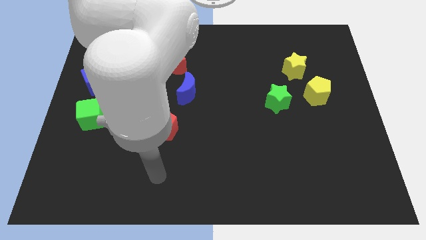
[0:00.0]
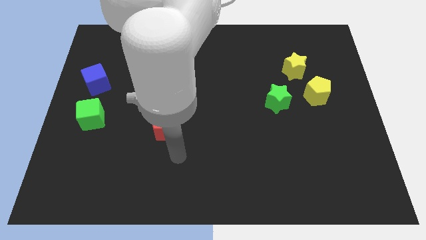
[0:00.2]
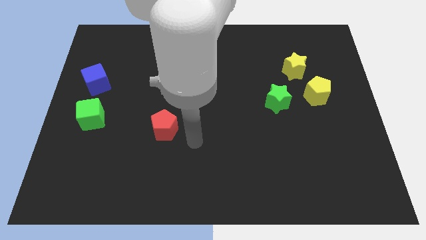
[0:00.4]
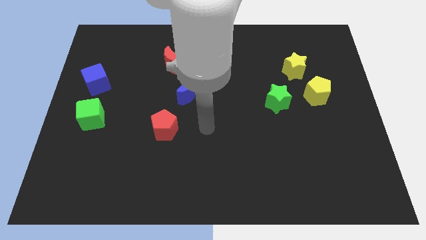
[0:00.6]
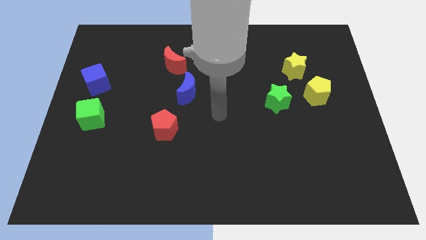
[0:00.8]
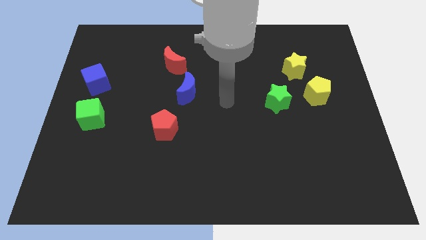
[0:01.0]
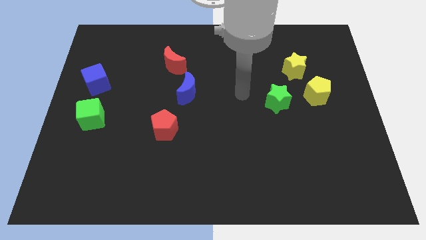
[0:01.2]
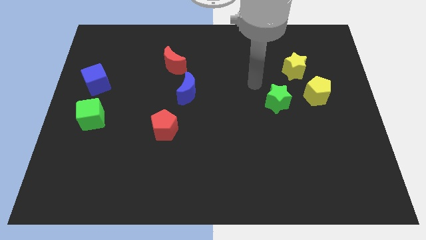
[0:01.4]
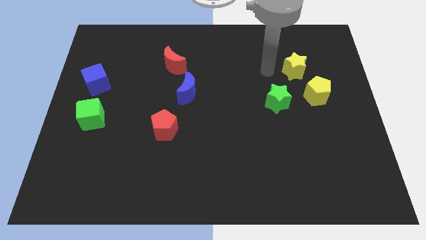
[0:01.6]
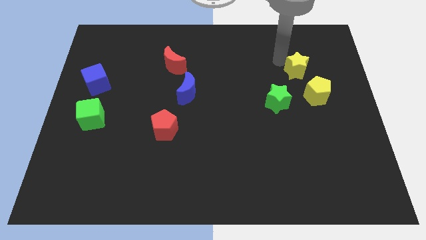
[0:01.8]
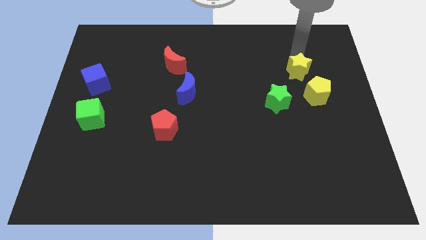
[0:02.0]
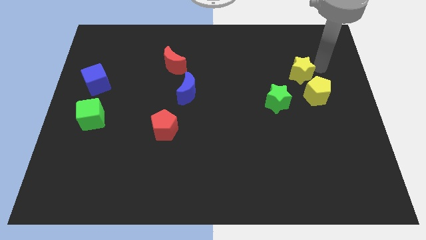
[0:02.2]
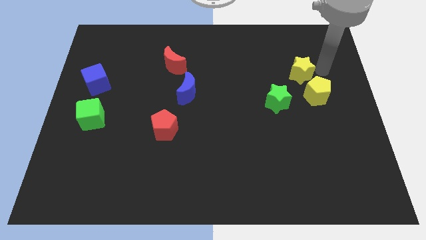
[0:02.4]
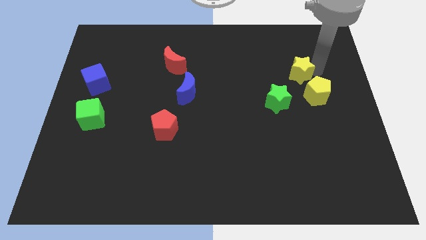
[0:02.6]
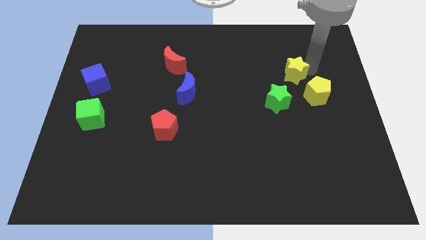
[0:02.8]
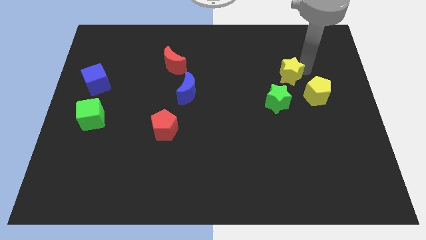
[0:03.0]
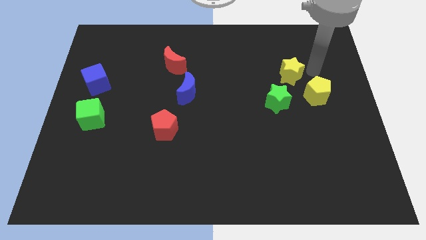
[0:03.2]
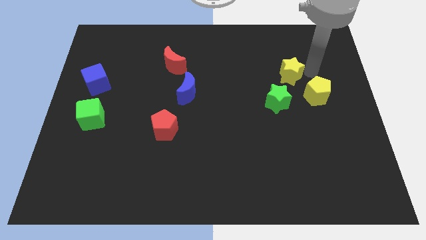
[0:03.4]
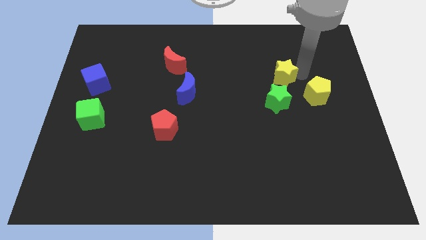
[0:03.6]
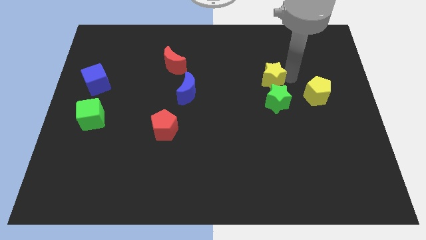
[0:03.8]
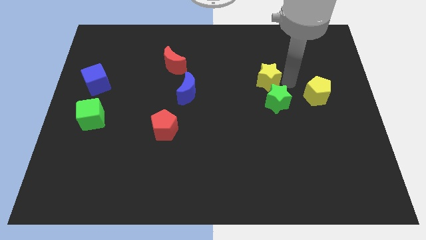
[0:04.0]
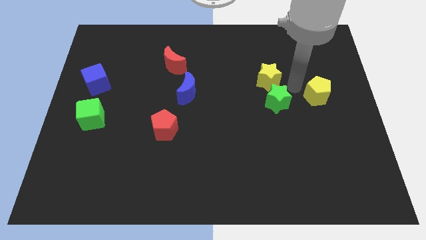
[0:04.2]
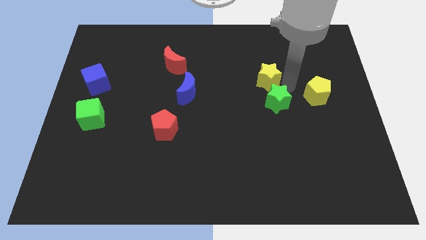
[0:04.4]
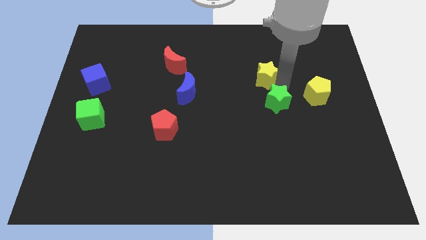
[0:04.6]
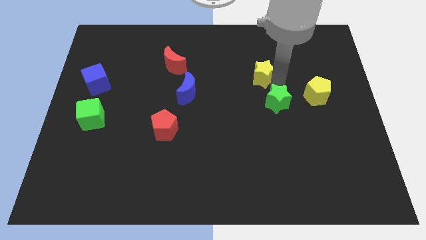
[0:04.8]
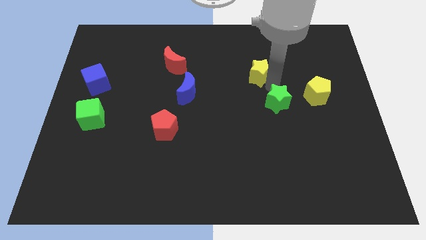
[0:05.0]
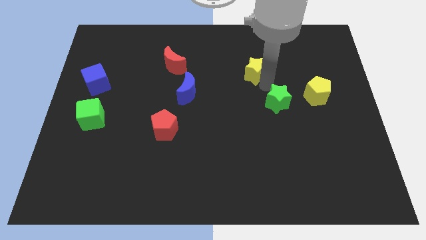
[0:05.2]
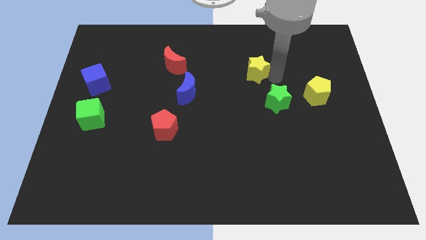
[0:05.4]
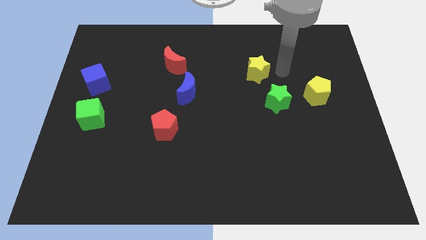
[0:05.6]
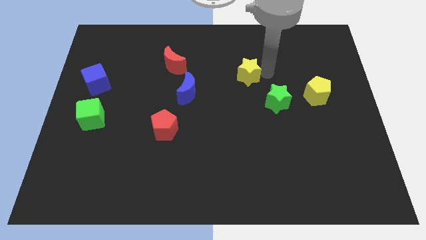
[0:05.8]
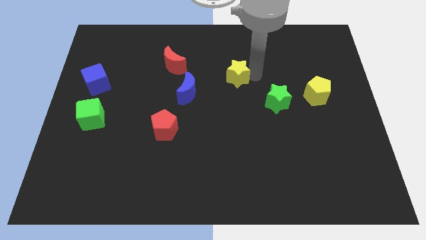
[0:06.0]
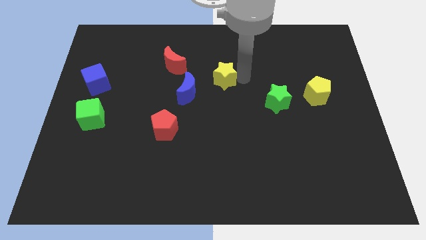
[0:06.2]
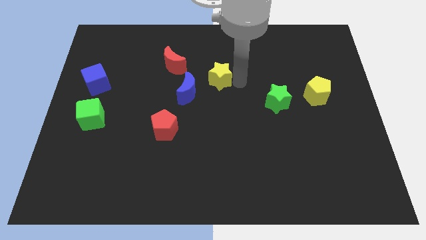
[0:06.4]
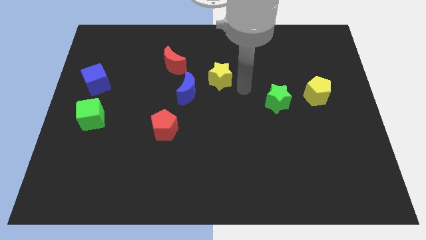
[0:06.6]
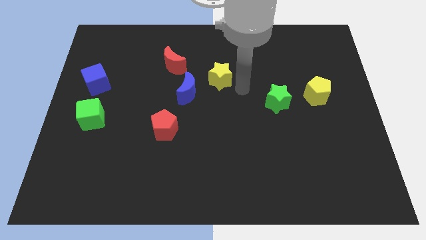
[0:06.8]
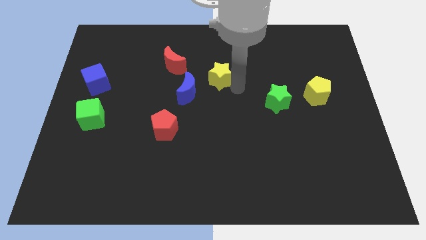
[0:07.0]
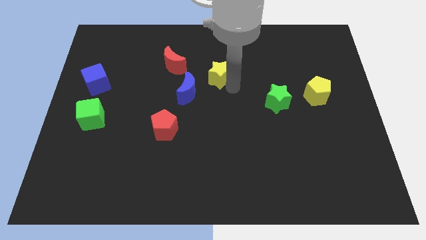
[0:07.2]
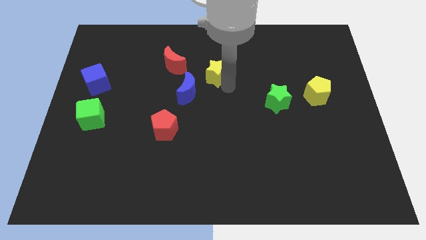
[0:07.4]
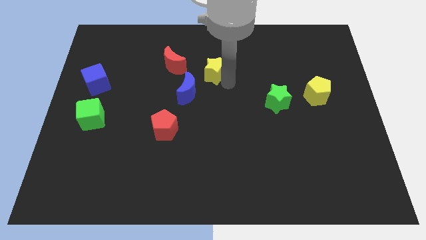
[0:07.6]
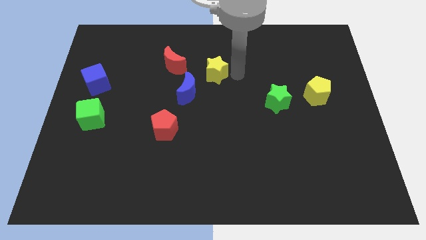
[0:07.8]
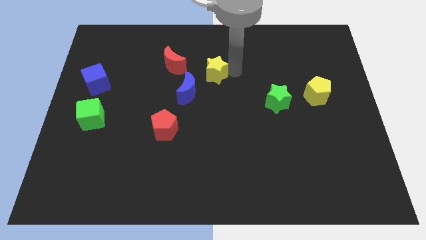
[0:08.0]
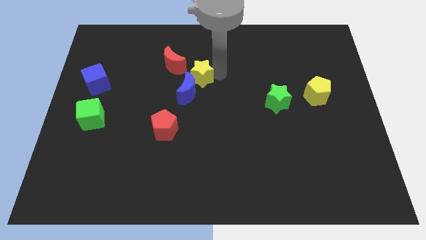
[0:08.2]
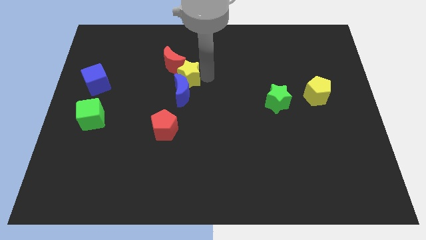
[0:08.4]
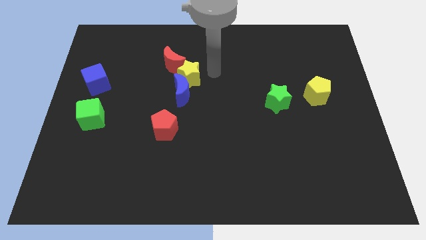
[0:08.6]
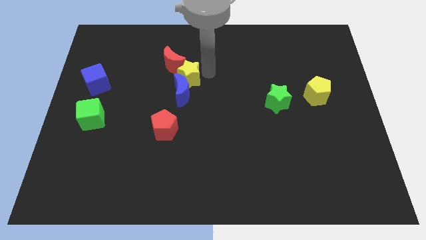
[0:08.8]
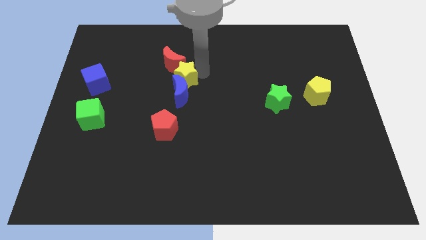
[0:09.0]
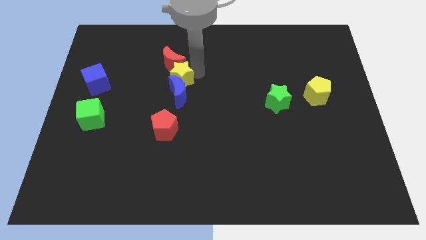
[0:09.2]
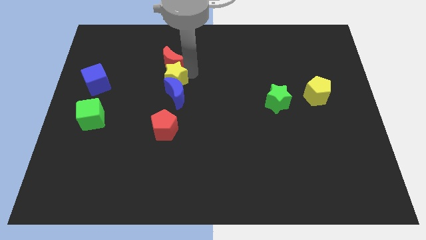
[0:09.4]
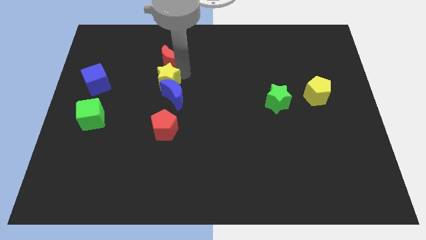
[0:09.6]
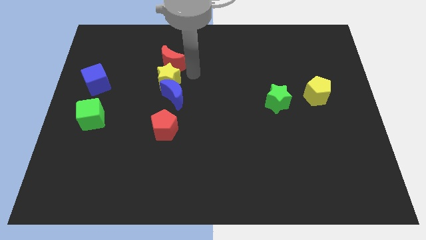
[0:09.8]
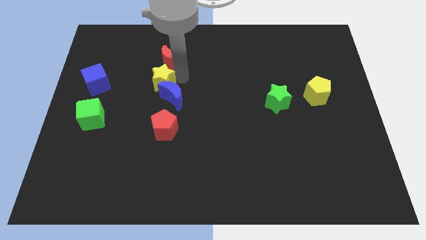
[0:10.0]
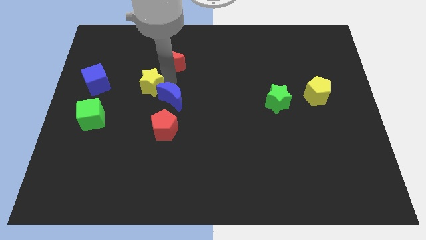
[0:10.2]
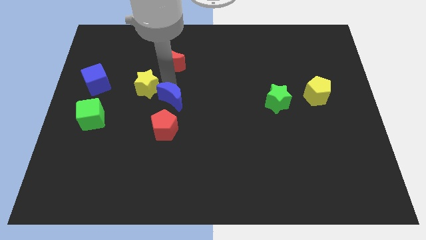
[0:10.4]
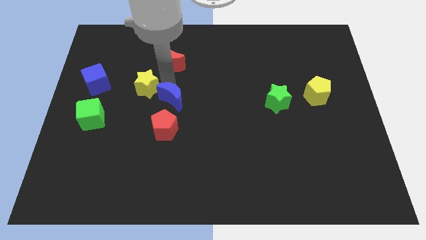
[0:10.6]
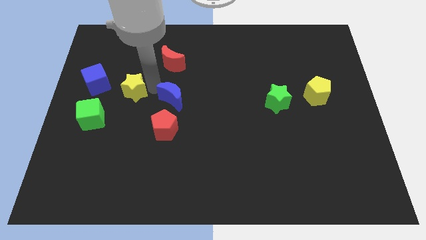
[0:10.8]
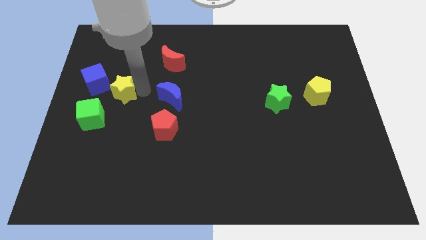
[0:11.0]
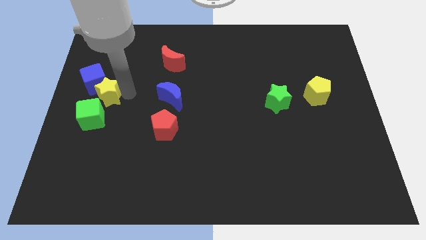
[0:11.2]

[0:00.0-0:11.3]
move the yellow star to the left side of the board

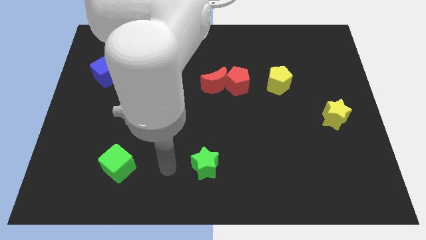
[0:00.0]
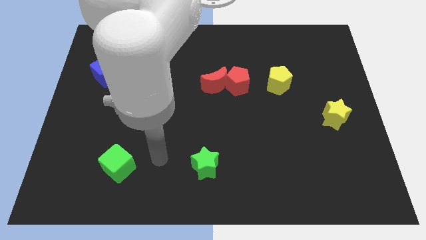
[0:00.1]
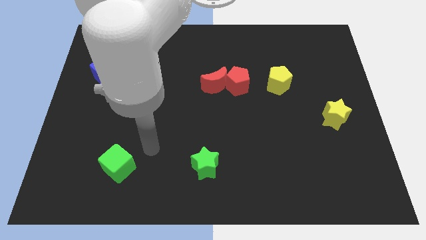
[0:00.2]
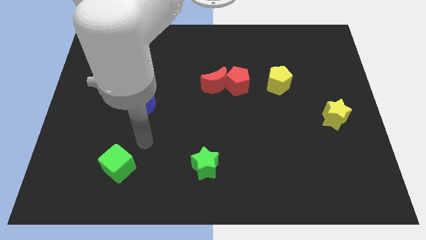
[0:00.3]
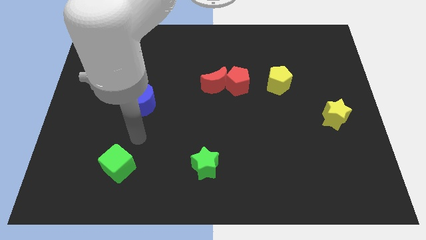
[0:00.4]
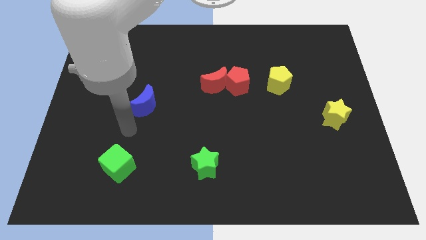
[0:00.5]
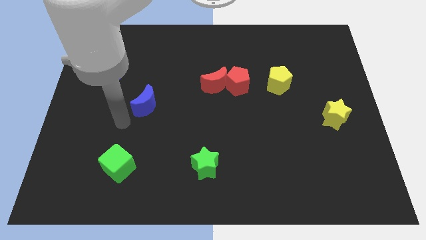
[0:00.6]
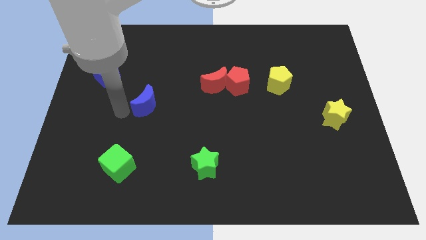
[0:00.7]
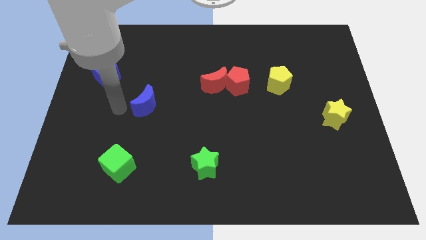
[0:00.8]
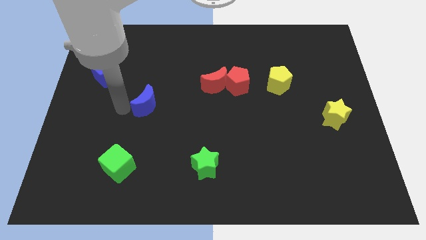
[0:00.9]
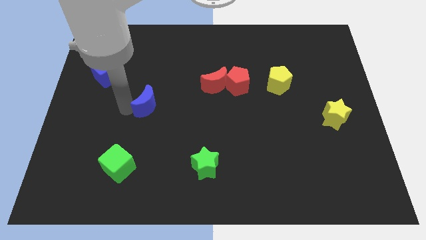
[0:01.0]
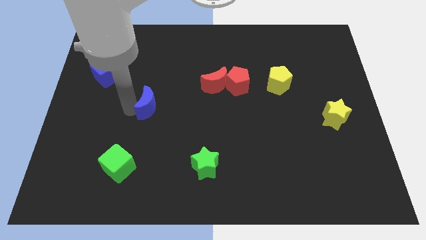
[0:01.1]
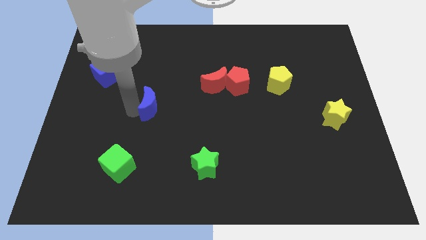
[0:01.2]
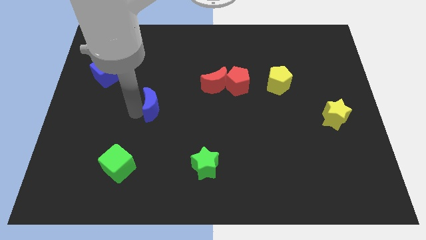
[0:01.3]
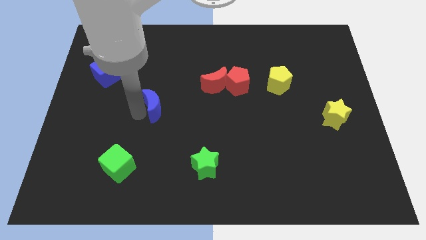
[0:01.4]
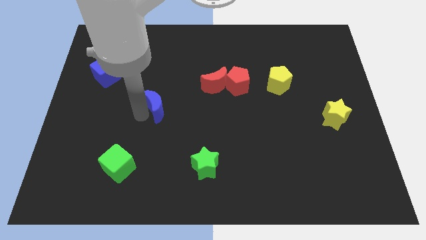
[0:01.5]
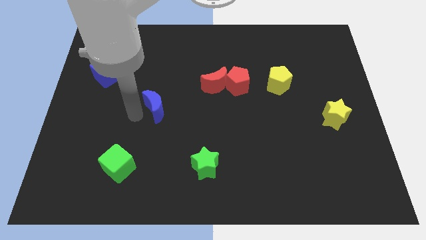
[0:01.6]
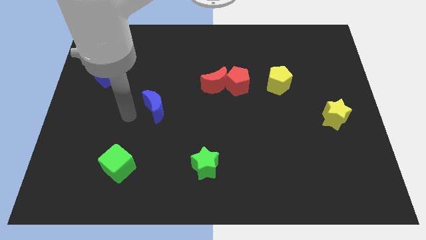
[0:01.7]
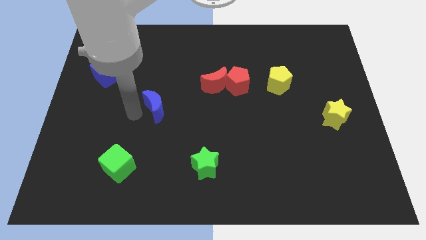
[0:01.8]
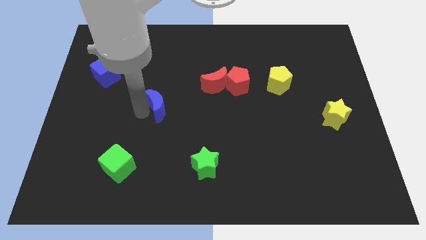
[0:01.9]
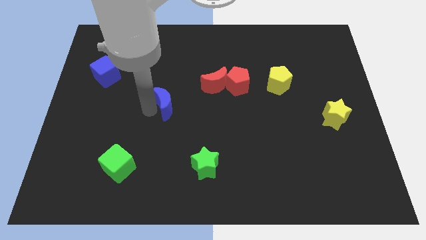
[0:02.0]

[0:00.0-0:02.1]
push the blue moon to the center
